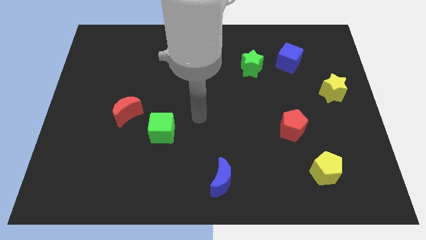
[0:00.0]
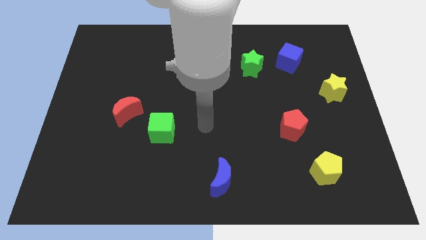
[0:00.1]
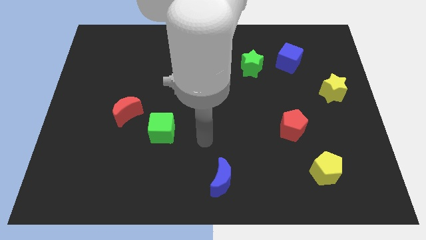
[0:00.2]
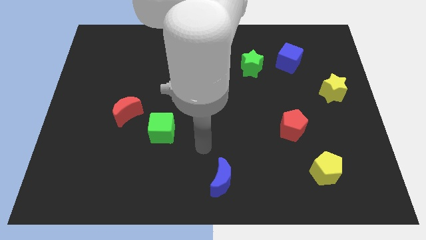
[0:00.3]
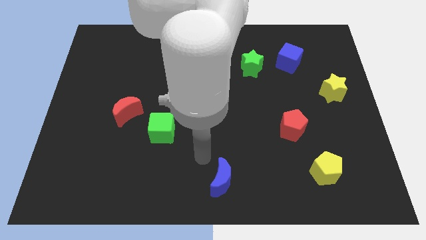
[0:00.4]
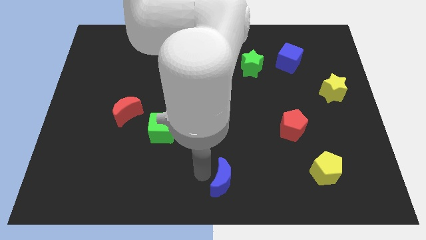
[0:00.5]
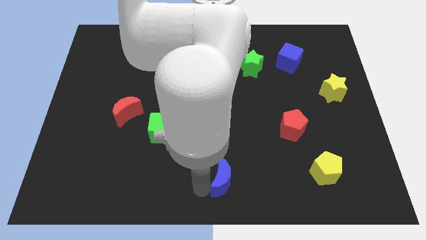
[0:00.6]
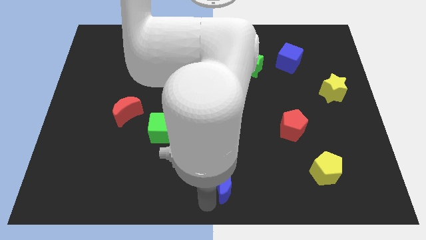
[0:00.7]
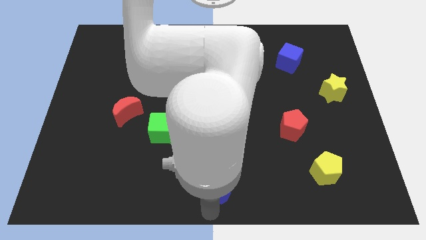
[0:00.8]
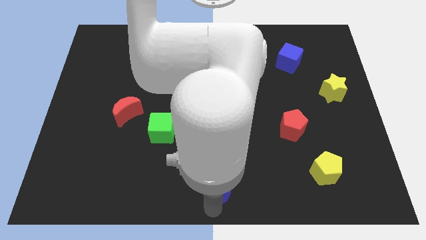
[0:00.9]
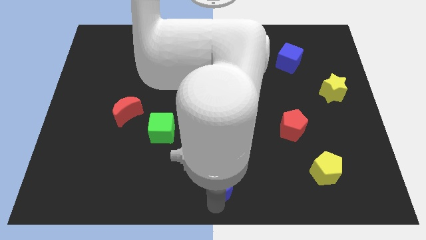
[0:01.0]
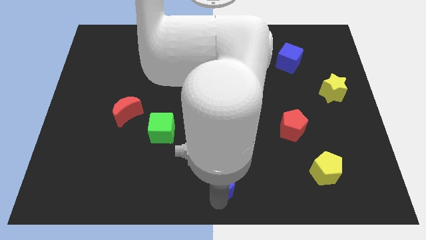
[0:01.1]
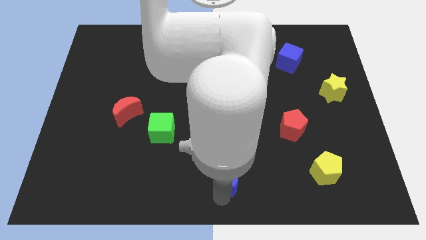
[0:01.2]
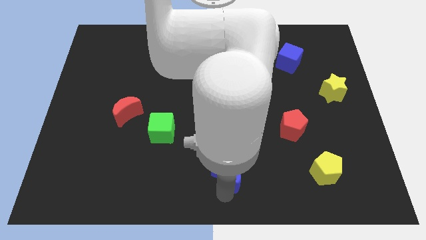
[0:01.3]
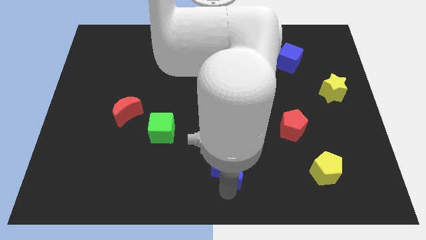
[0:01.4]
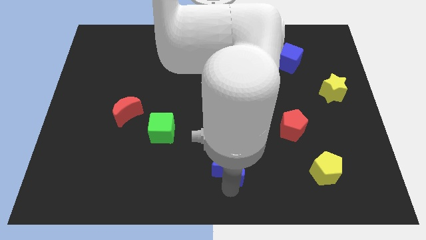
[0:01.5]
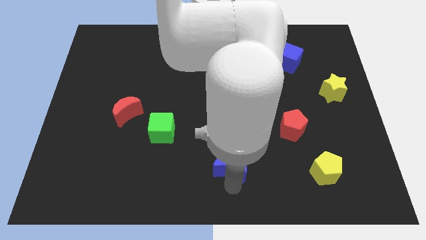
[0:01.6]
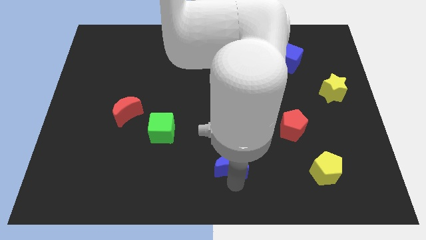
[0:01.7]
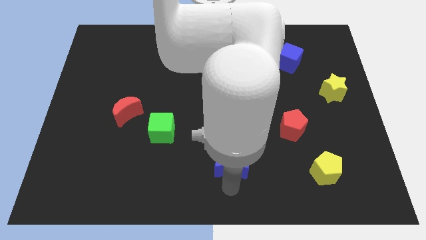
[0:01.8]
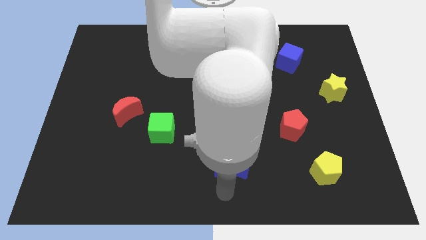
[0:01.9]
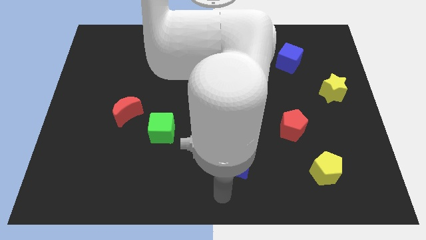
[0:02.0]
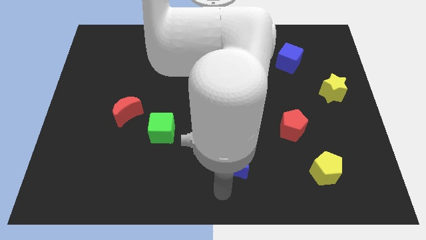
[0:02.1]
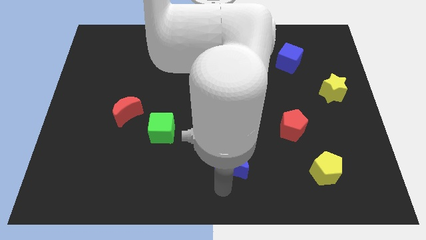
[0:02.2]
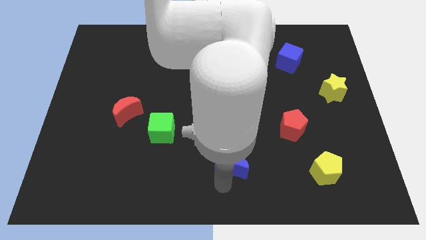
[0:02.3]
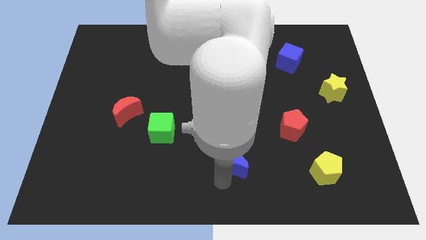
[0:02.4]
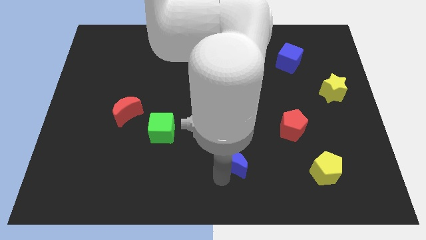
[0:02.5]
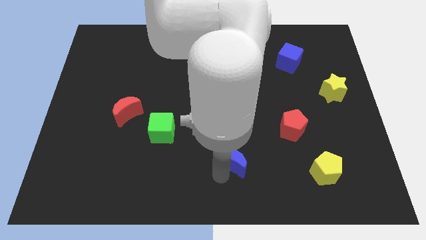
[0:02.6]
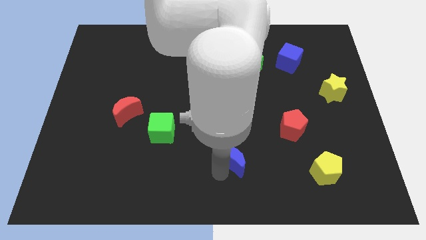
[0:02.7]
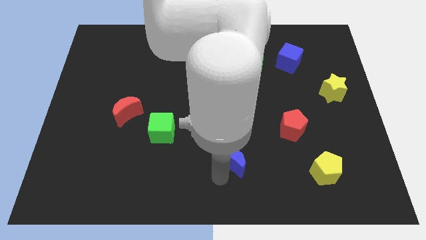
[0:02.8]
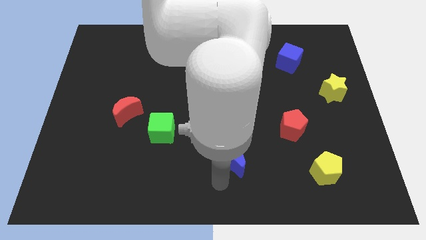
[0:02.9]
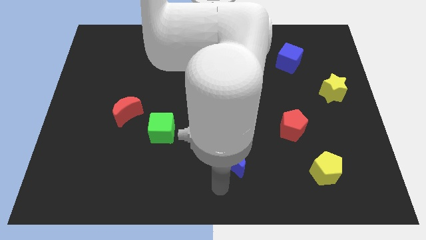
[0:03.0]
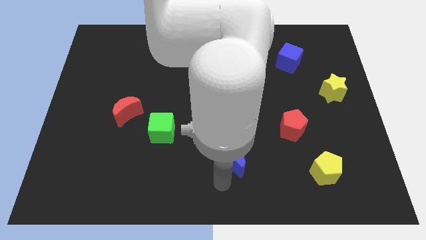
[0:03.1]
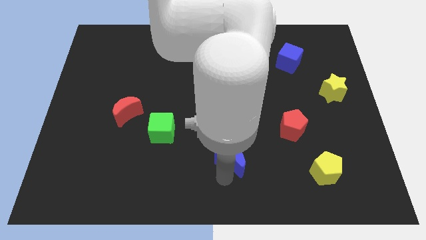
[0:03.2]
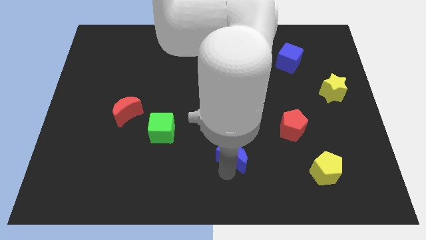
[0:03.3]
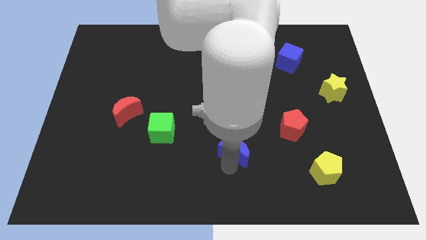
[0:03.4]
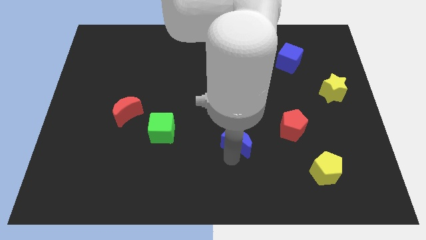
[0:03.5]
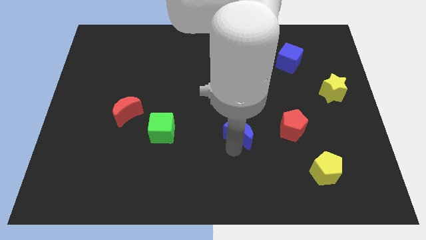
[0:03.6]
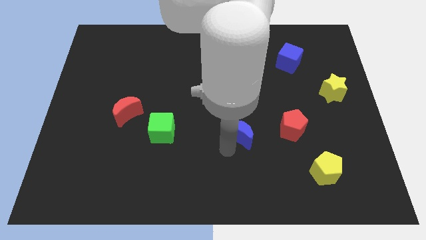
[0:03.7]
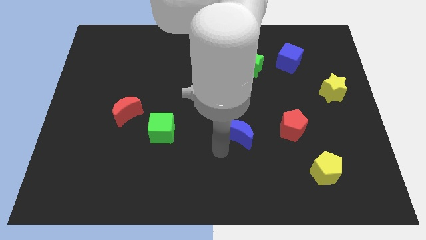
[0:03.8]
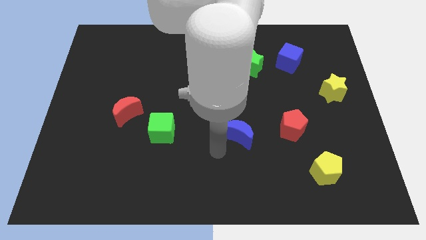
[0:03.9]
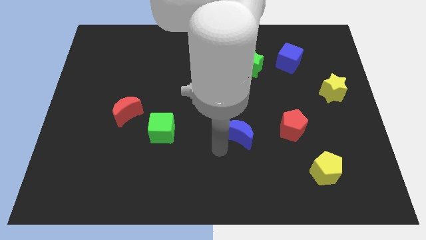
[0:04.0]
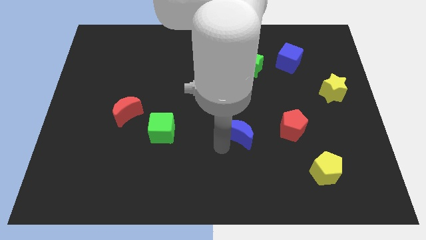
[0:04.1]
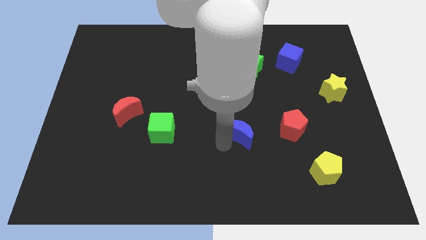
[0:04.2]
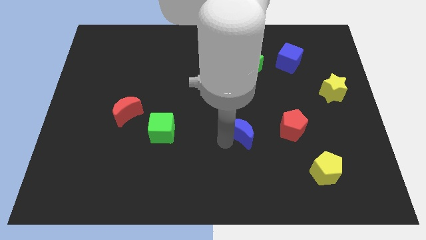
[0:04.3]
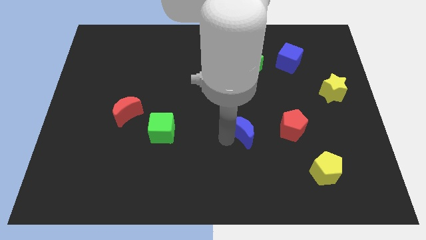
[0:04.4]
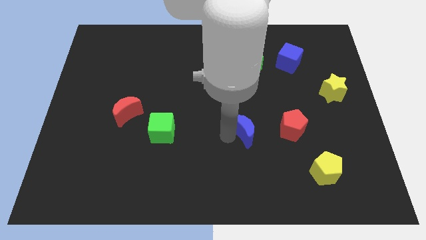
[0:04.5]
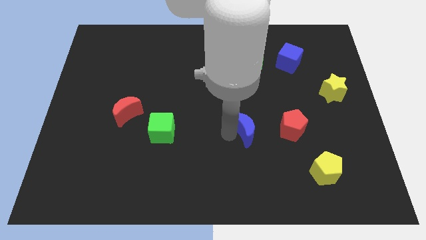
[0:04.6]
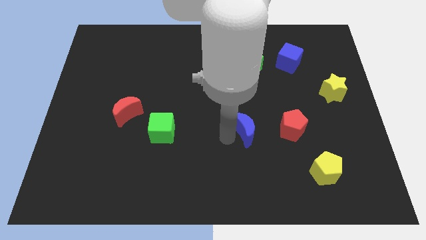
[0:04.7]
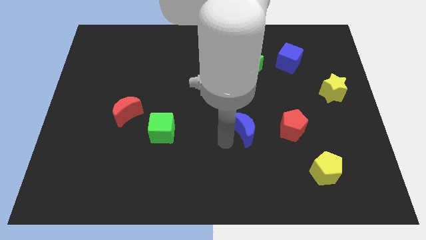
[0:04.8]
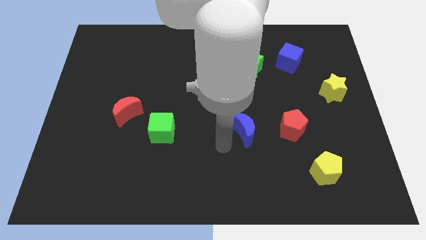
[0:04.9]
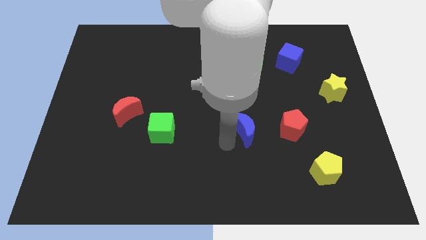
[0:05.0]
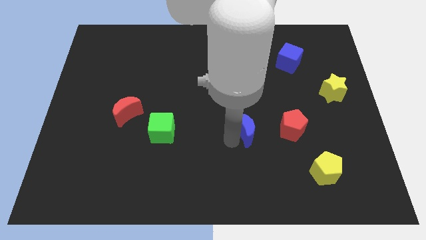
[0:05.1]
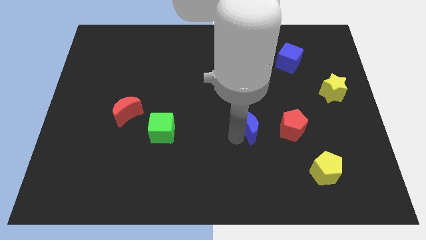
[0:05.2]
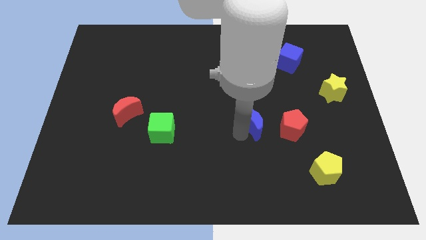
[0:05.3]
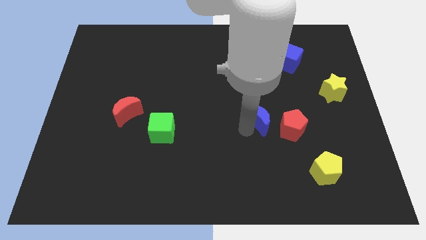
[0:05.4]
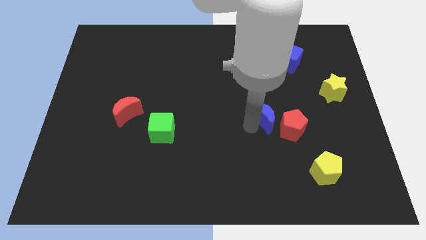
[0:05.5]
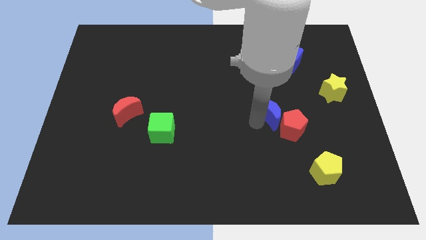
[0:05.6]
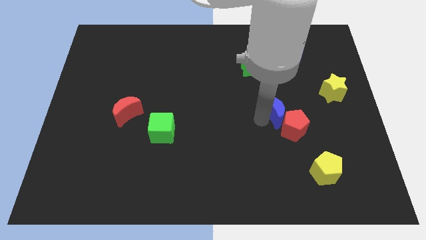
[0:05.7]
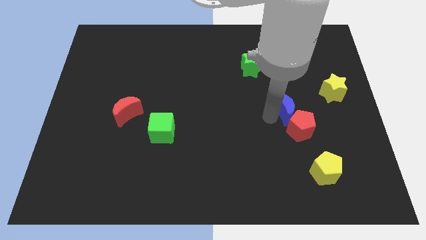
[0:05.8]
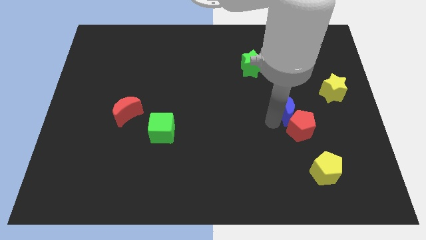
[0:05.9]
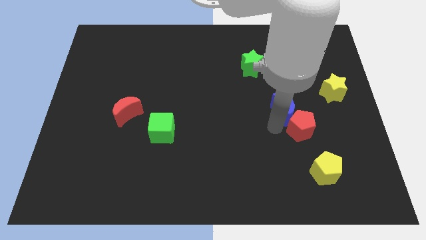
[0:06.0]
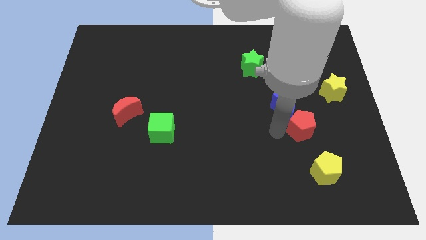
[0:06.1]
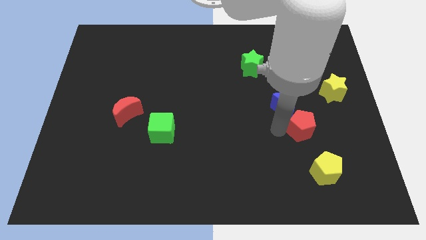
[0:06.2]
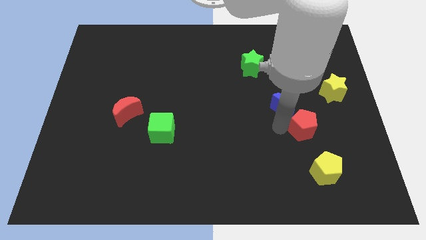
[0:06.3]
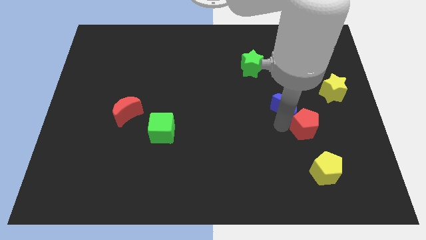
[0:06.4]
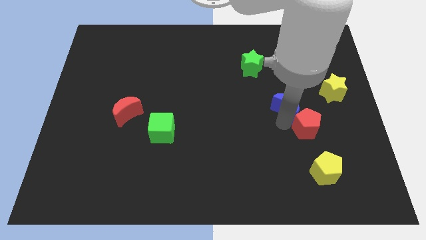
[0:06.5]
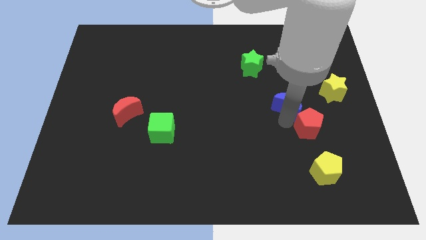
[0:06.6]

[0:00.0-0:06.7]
put the blue moon to the left of the yellow star

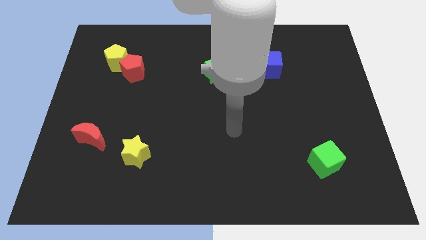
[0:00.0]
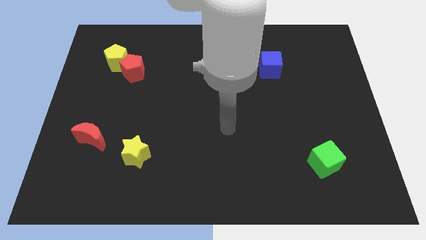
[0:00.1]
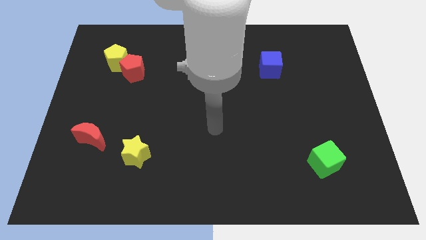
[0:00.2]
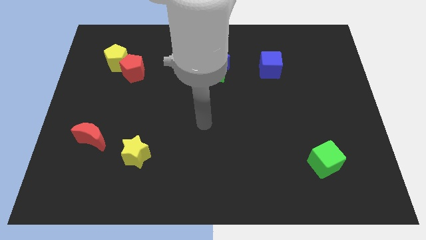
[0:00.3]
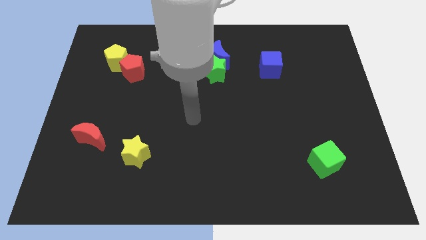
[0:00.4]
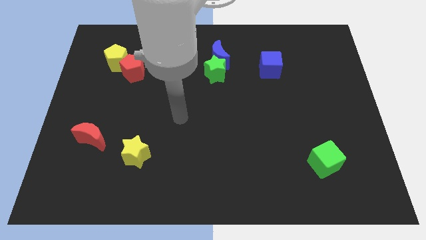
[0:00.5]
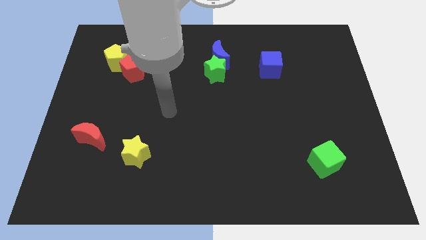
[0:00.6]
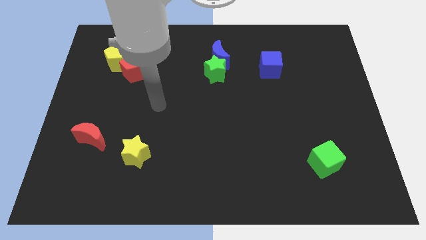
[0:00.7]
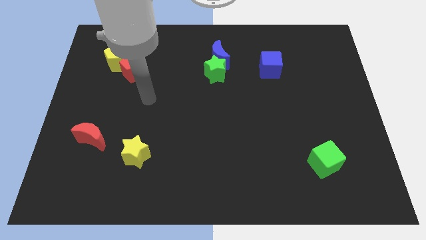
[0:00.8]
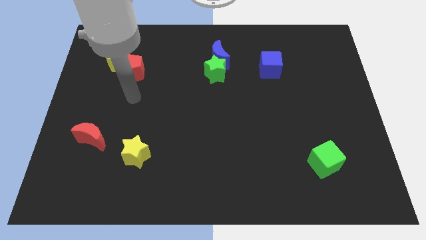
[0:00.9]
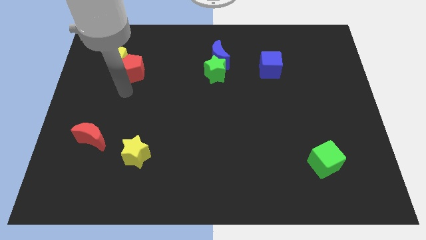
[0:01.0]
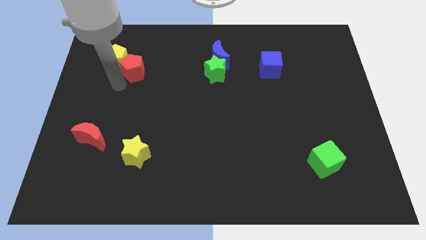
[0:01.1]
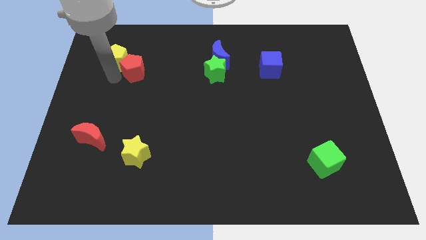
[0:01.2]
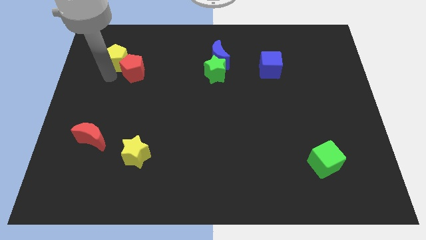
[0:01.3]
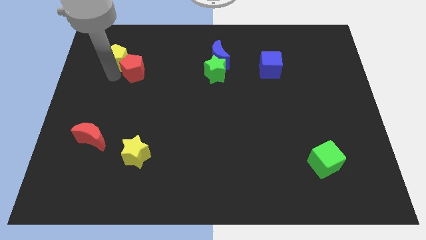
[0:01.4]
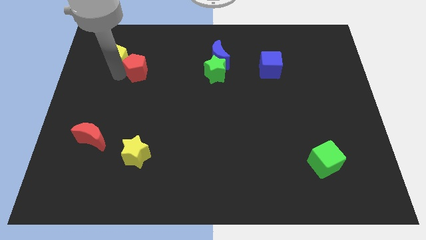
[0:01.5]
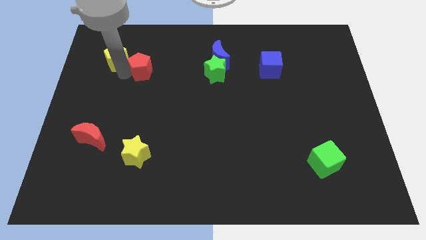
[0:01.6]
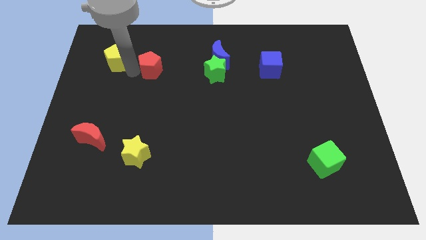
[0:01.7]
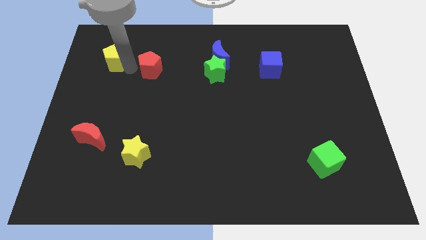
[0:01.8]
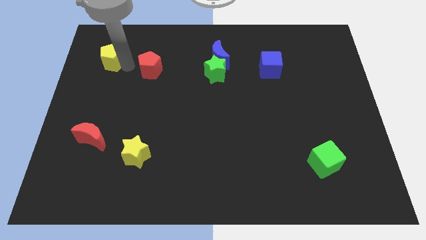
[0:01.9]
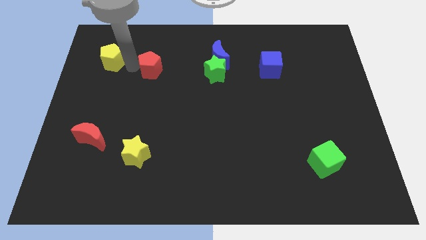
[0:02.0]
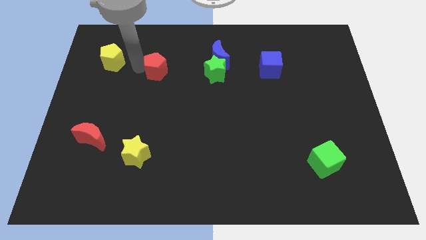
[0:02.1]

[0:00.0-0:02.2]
put the red pentagon just left of the green star
